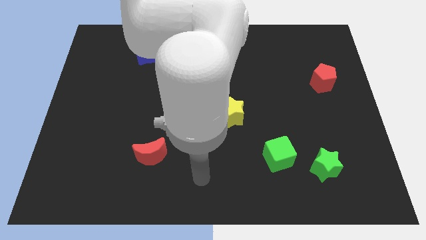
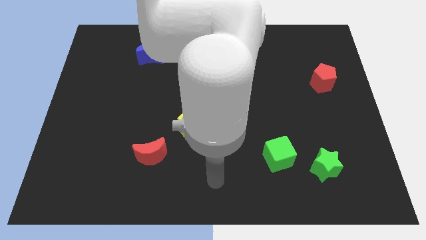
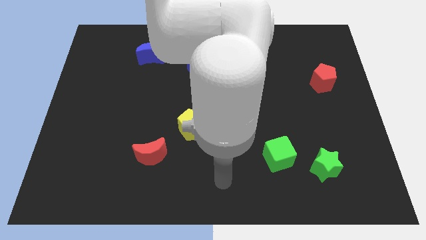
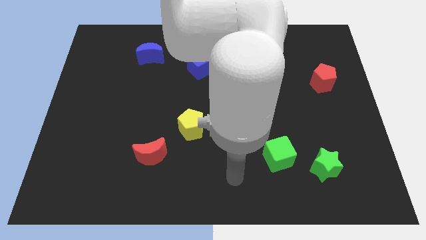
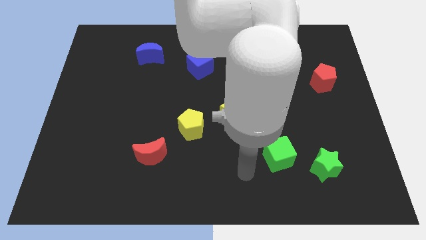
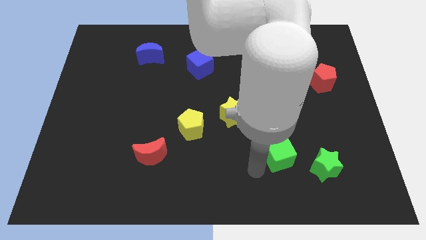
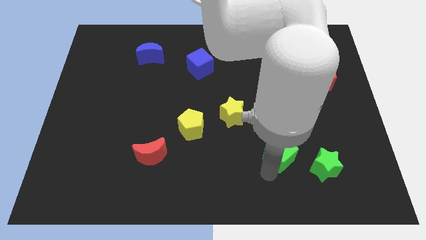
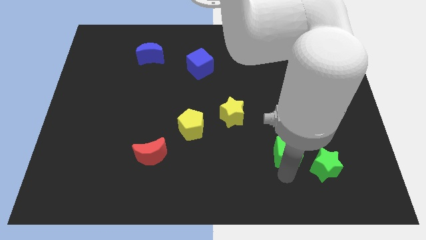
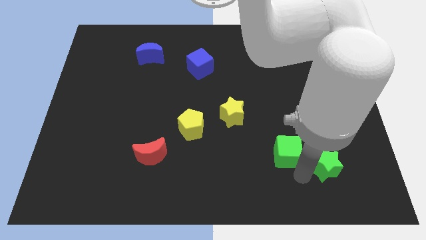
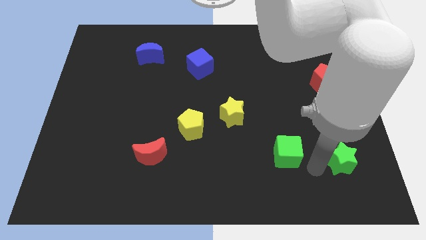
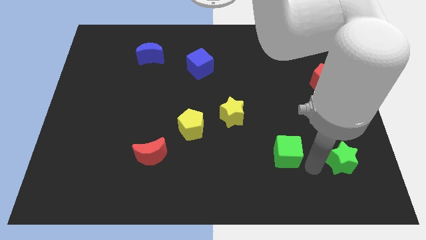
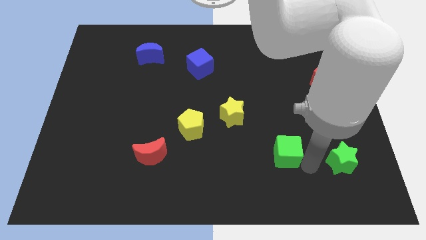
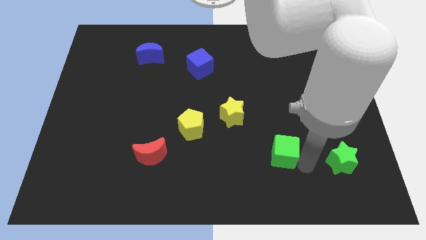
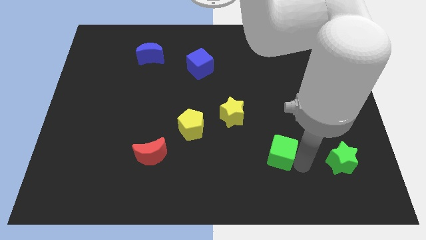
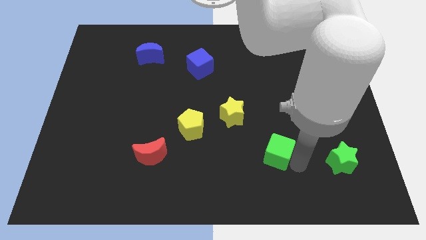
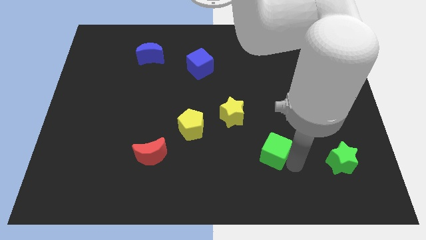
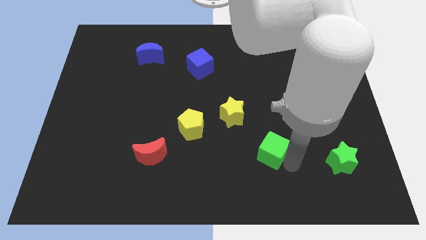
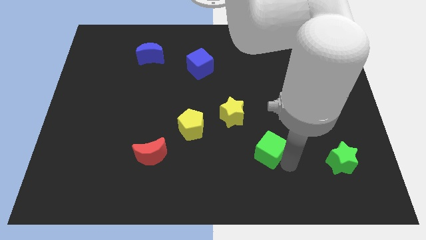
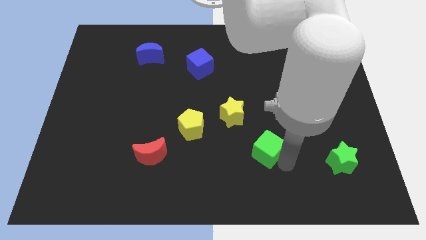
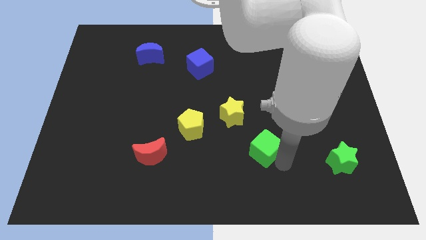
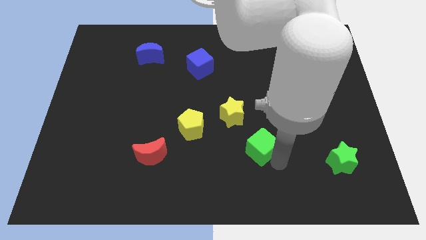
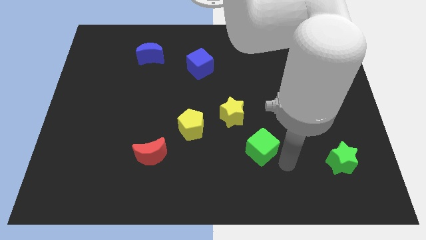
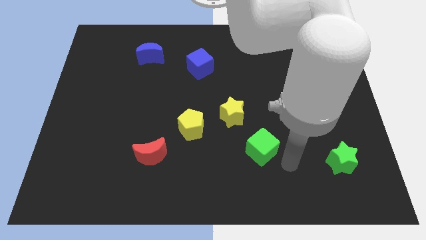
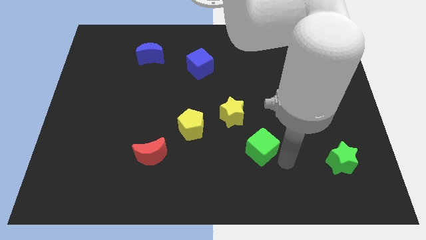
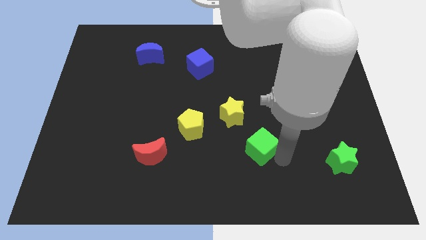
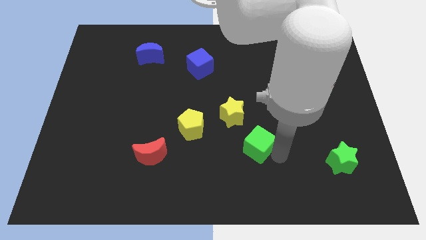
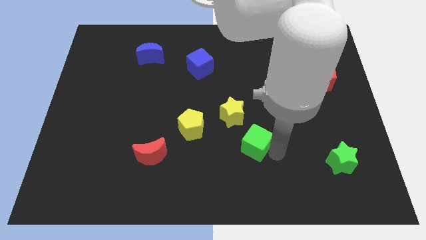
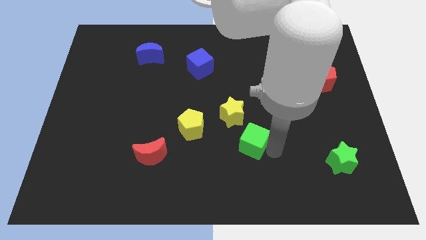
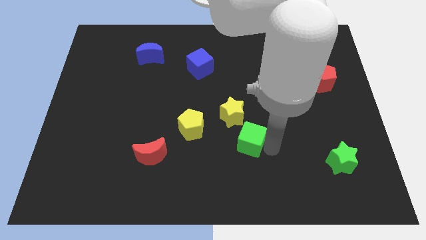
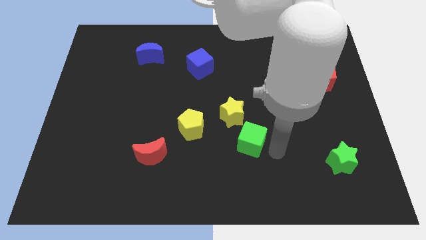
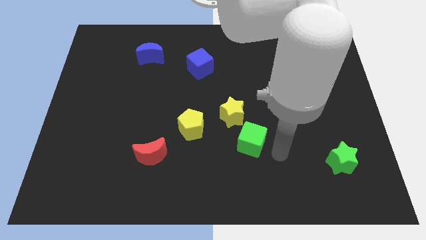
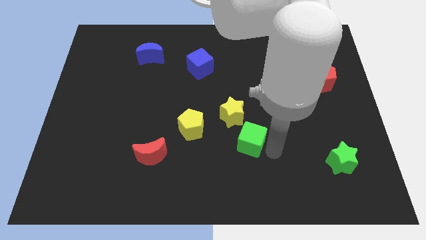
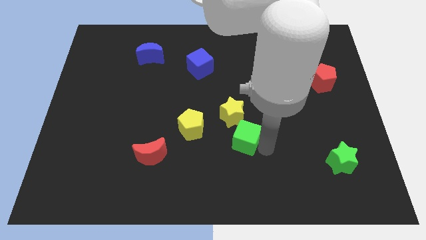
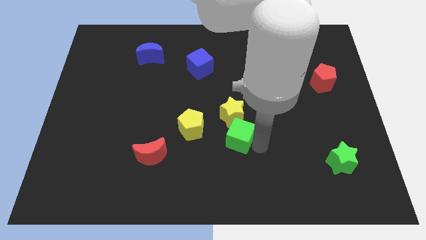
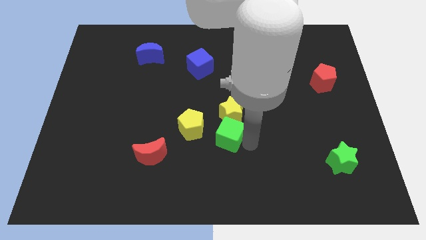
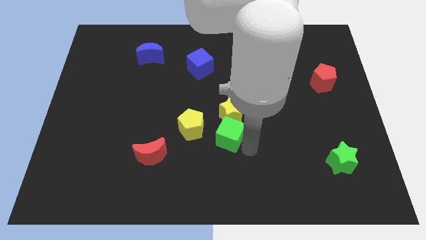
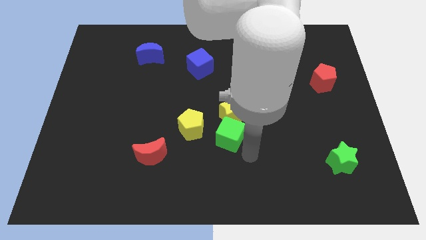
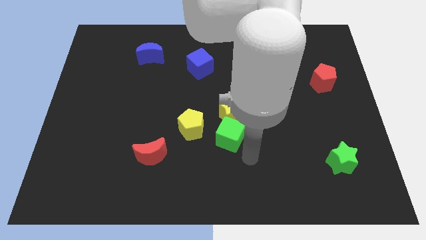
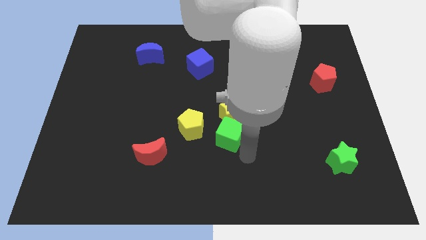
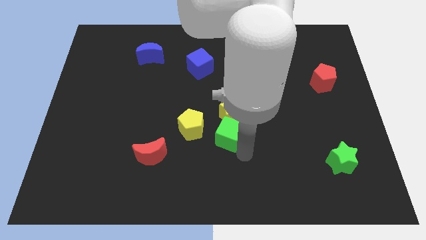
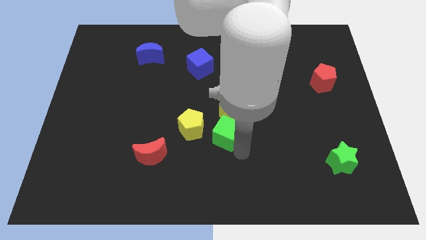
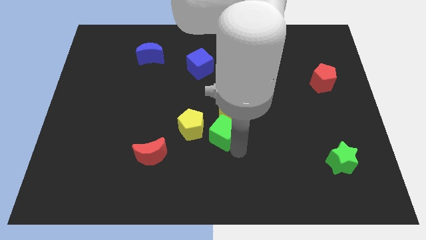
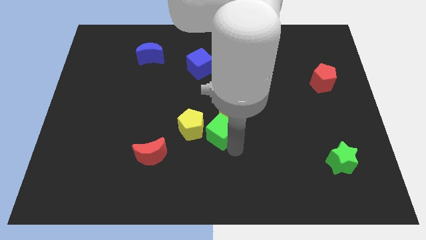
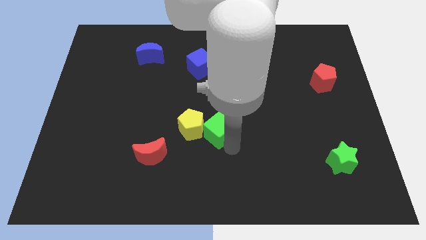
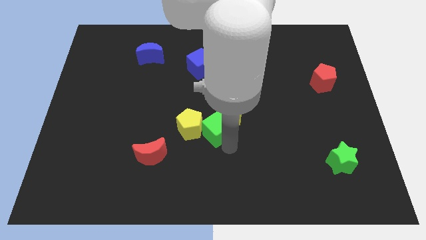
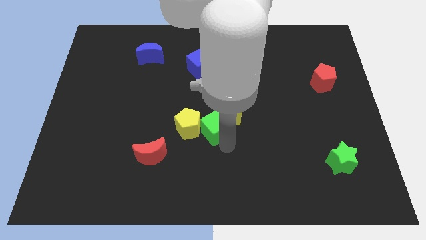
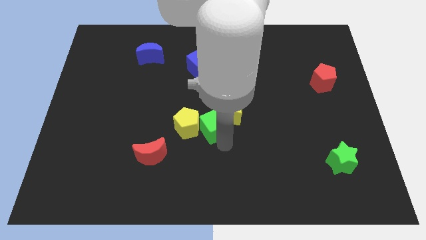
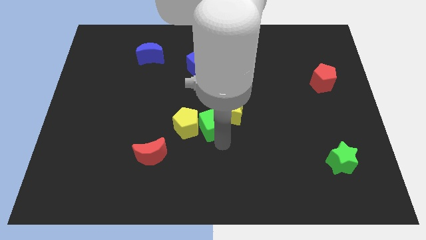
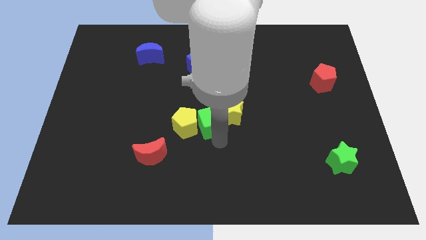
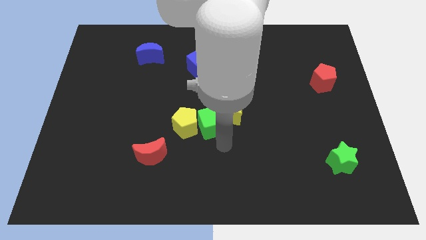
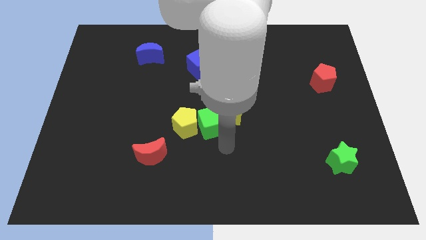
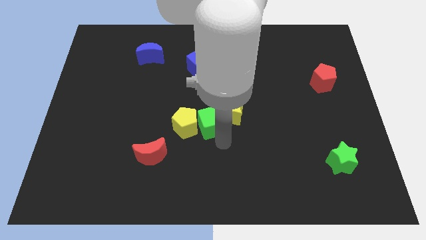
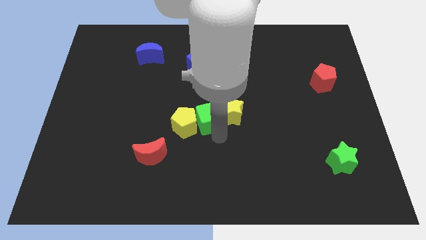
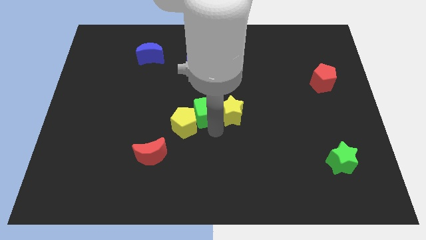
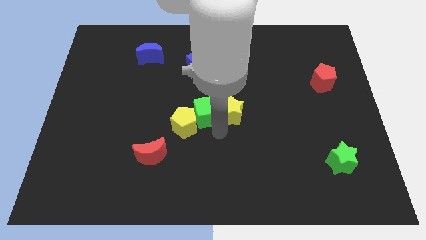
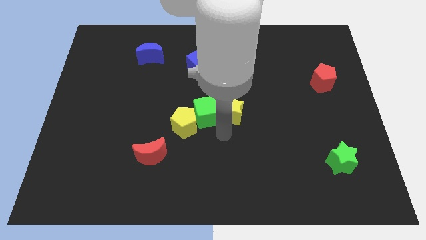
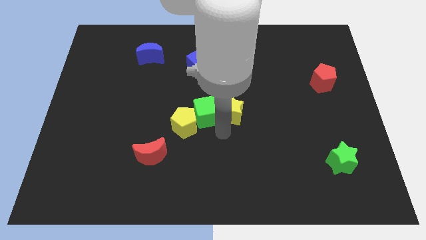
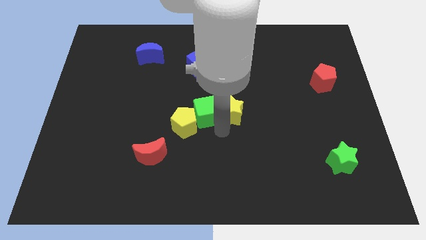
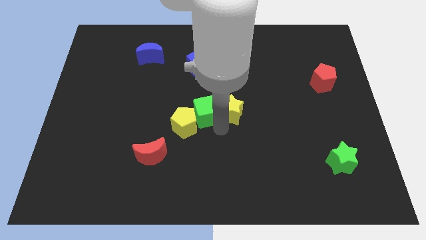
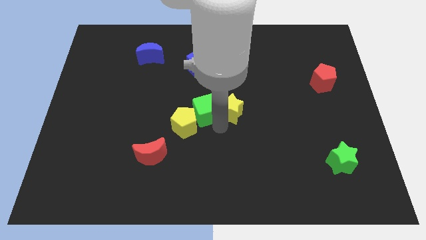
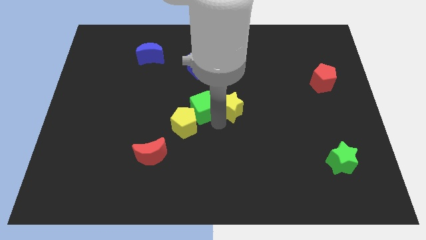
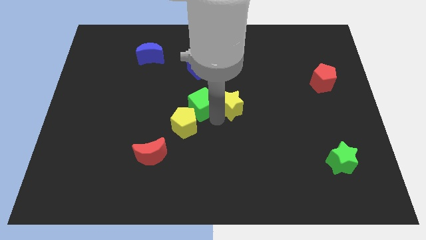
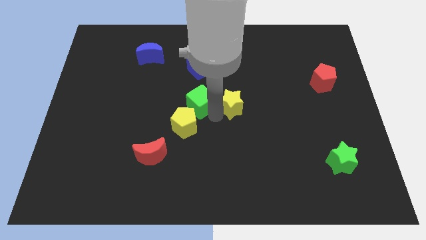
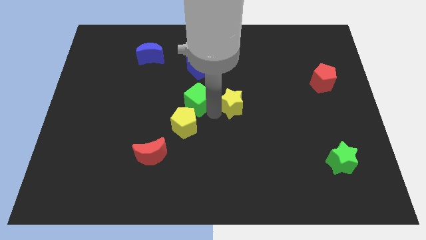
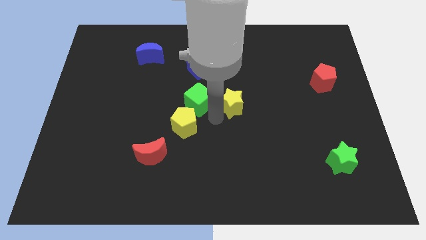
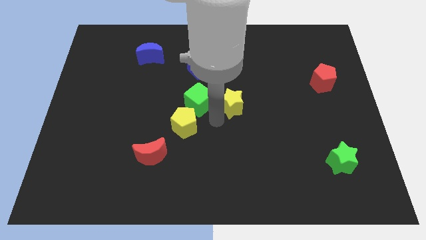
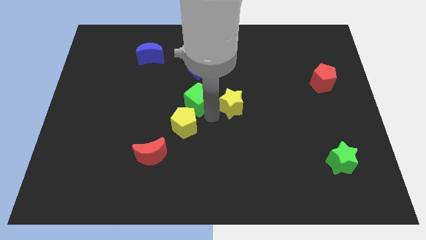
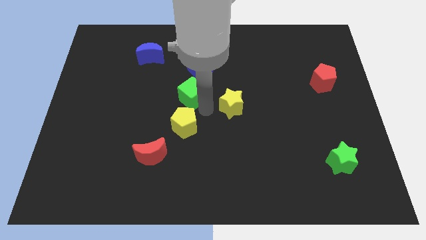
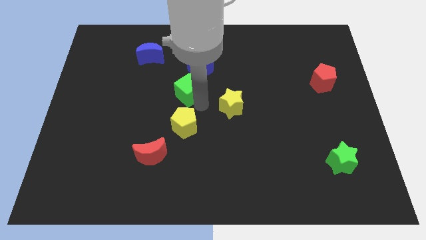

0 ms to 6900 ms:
move the green cube to the bottom left of the blue cube
